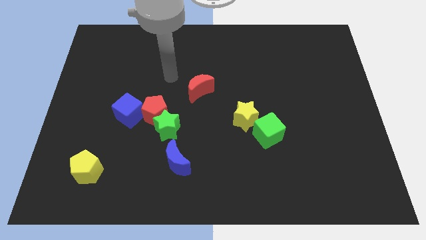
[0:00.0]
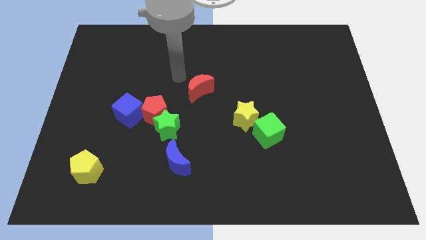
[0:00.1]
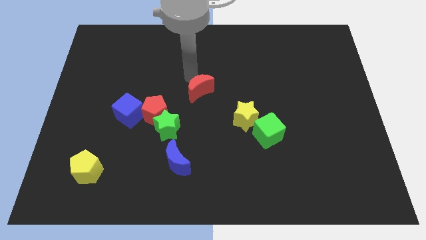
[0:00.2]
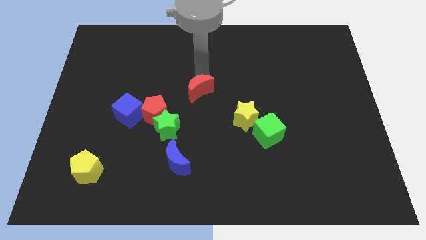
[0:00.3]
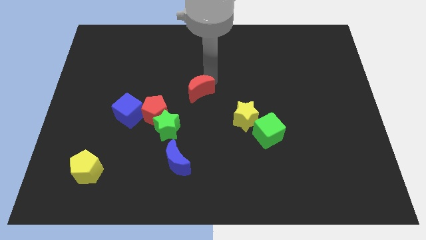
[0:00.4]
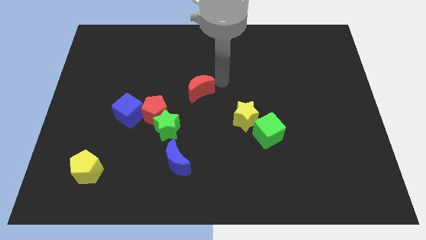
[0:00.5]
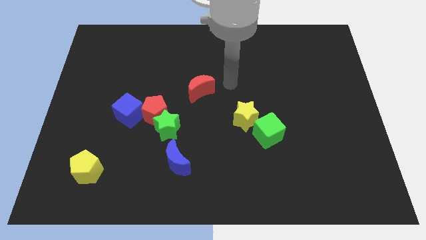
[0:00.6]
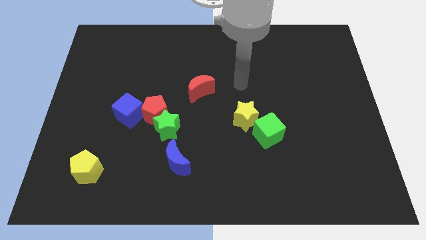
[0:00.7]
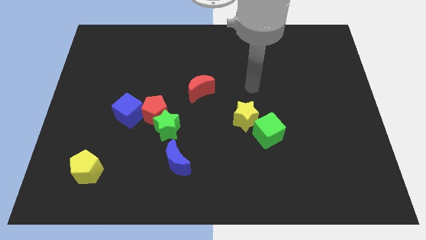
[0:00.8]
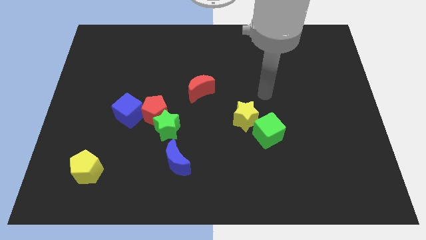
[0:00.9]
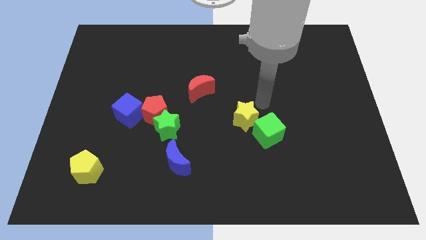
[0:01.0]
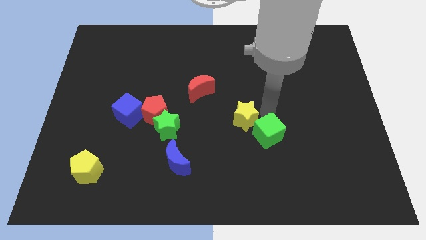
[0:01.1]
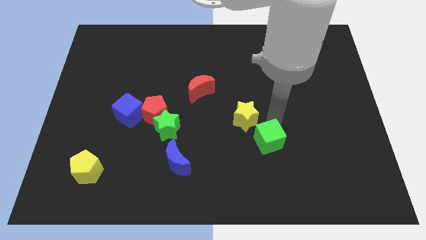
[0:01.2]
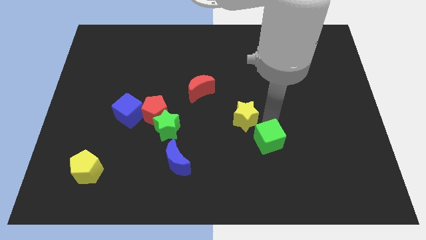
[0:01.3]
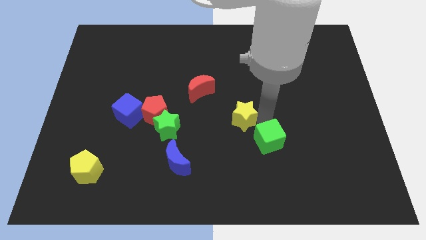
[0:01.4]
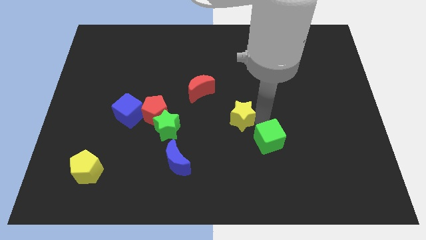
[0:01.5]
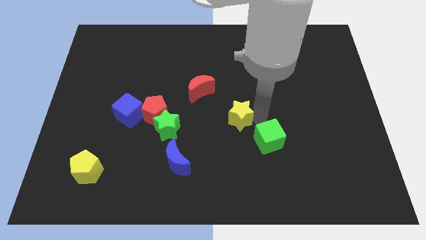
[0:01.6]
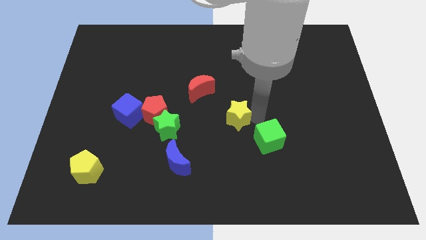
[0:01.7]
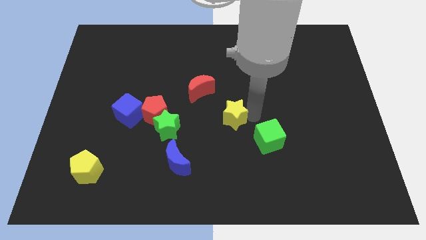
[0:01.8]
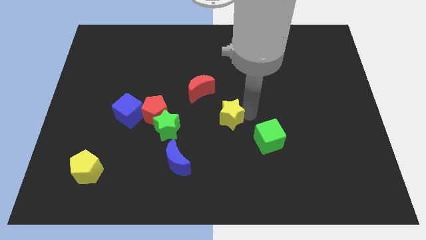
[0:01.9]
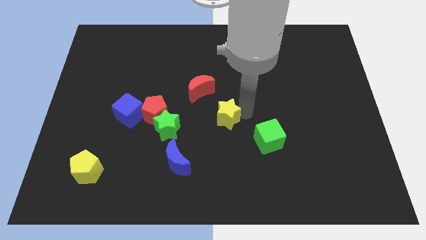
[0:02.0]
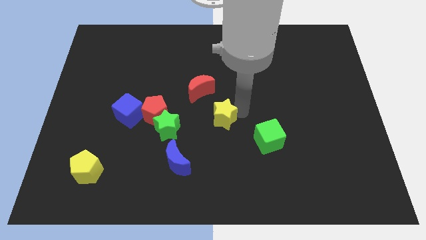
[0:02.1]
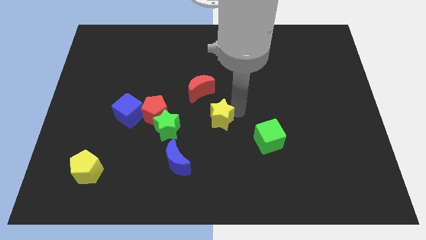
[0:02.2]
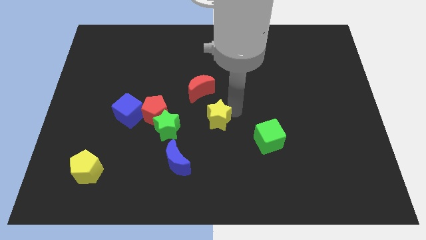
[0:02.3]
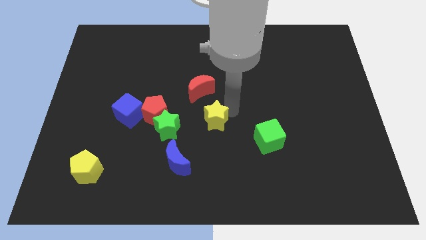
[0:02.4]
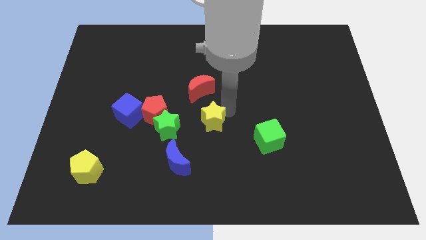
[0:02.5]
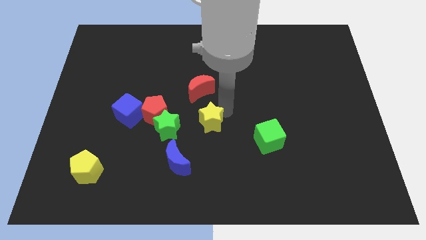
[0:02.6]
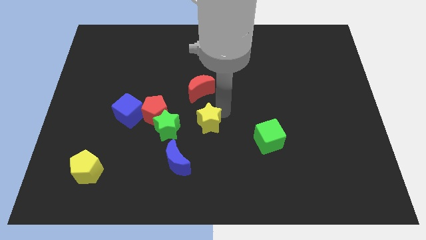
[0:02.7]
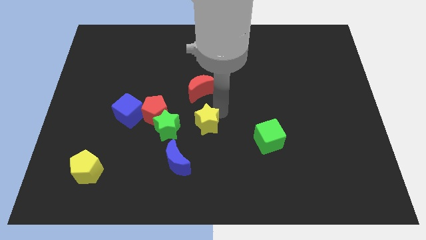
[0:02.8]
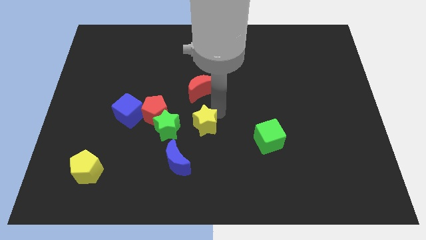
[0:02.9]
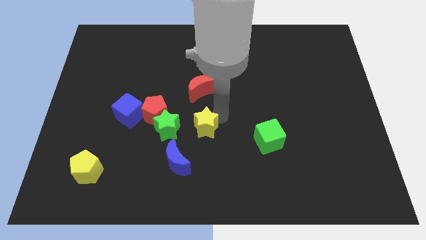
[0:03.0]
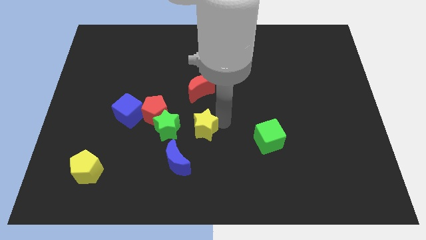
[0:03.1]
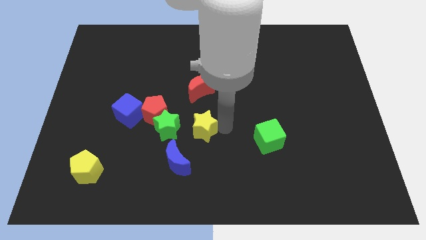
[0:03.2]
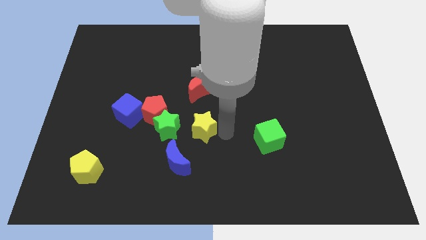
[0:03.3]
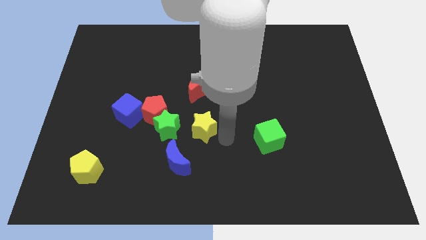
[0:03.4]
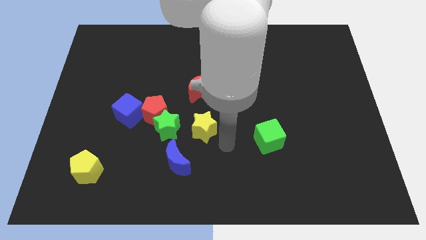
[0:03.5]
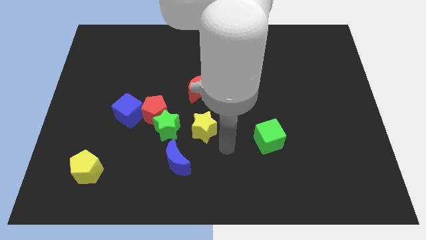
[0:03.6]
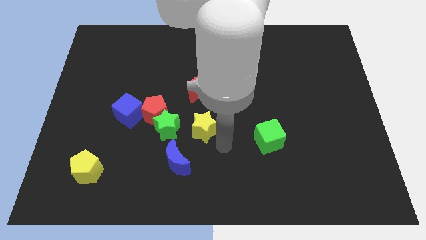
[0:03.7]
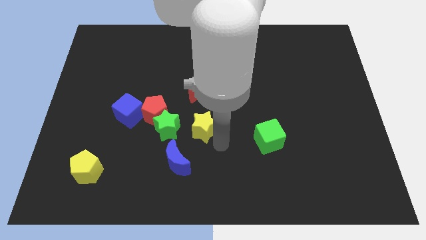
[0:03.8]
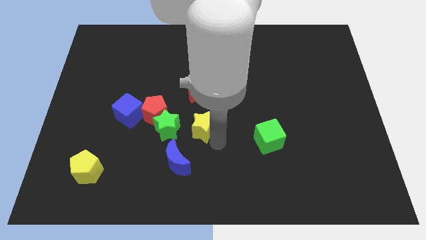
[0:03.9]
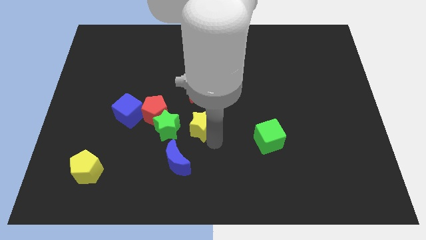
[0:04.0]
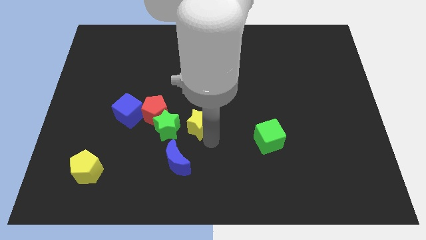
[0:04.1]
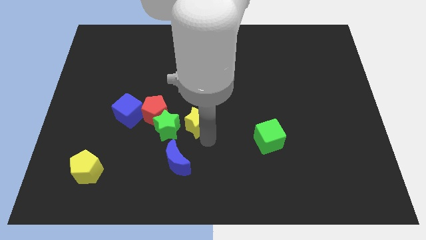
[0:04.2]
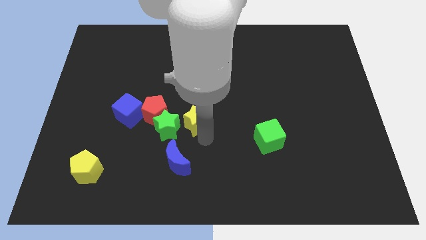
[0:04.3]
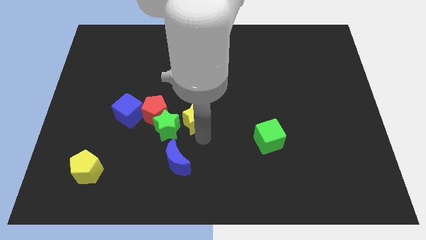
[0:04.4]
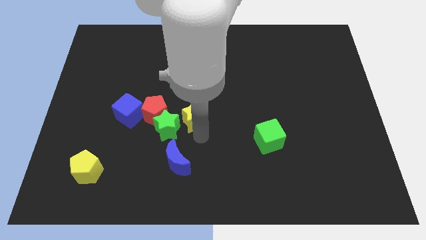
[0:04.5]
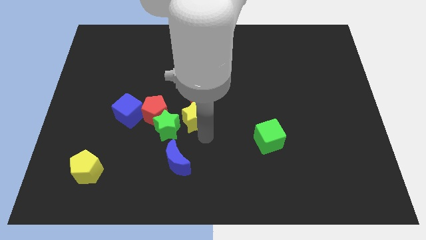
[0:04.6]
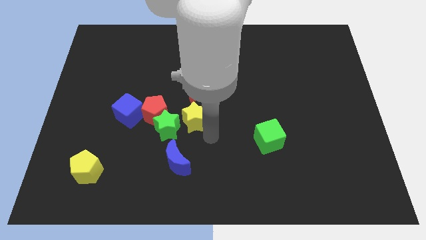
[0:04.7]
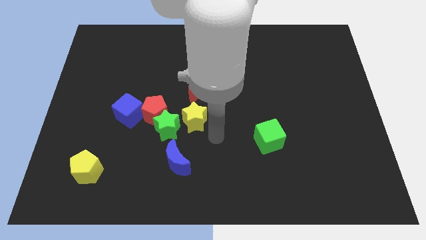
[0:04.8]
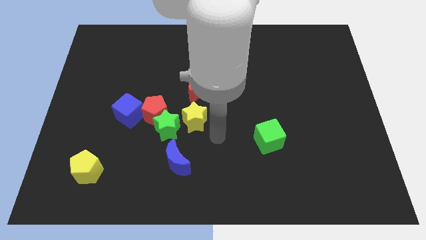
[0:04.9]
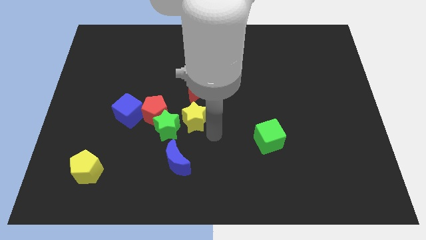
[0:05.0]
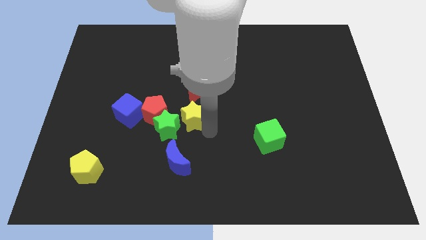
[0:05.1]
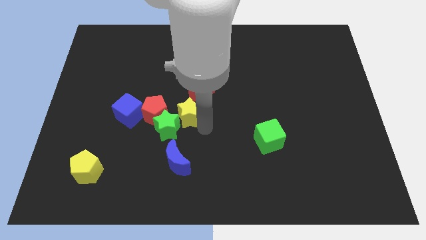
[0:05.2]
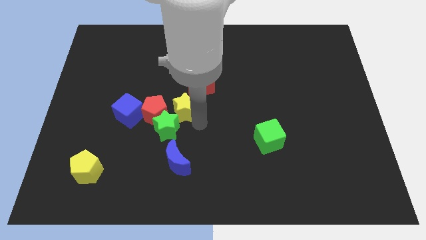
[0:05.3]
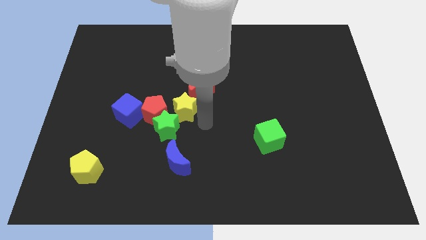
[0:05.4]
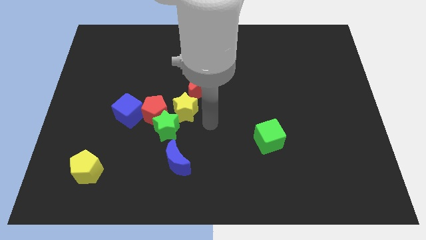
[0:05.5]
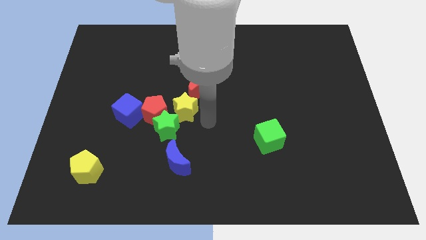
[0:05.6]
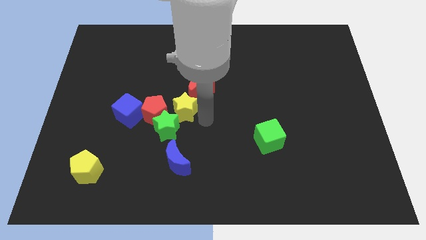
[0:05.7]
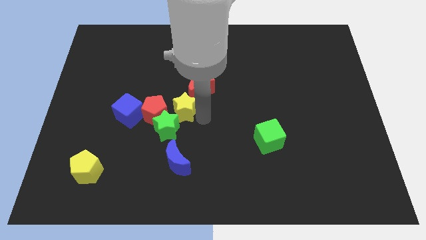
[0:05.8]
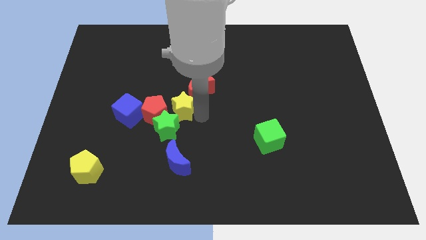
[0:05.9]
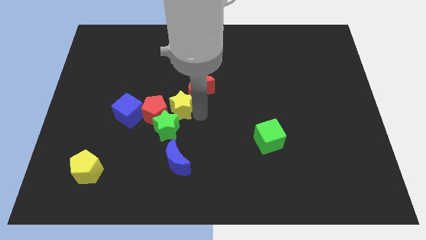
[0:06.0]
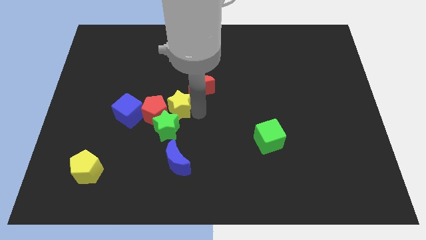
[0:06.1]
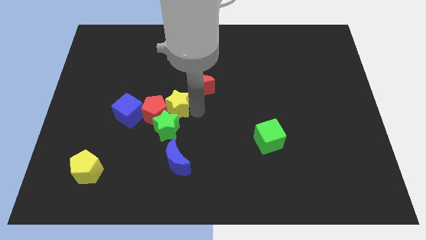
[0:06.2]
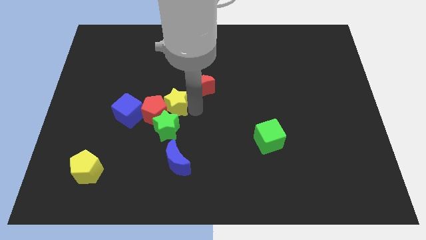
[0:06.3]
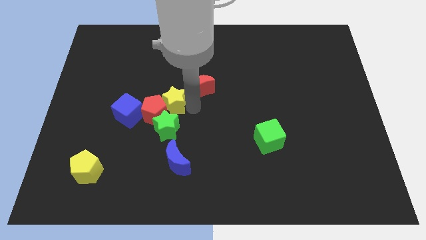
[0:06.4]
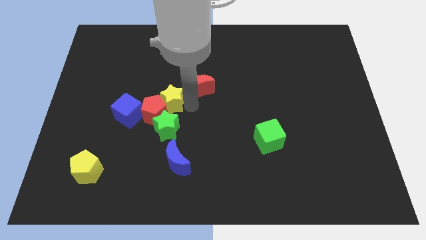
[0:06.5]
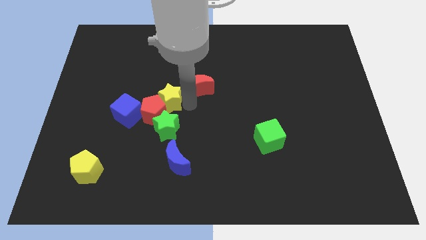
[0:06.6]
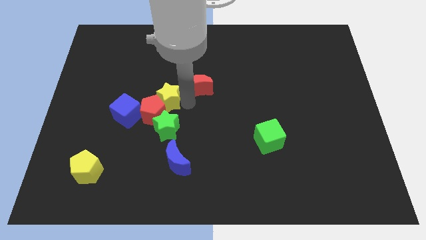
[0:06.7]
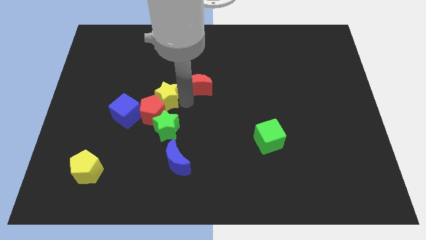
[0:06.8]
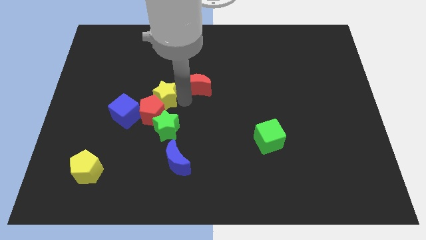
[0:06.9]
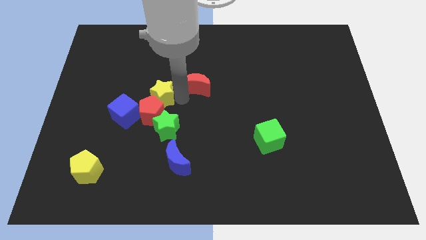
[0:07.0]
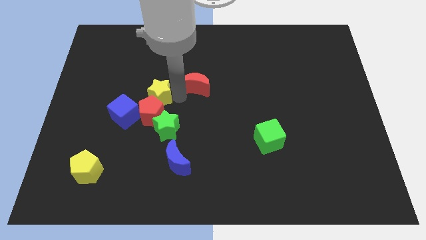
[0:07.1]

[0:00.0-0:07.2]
put the yellow star to the top left of the red pentagon

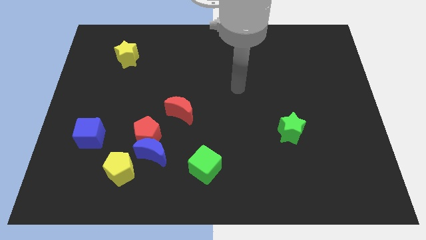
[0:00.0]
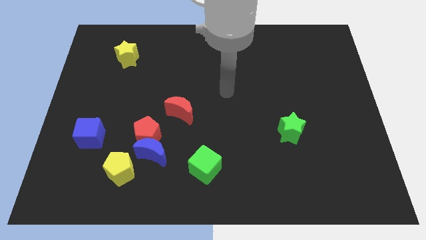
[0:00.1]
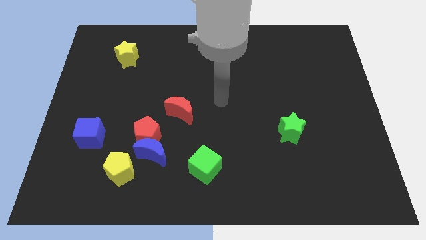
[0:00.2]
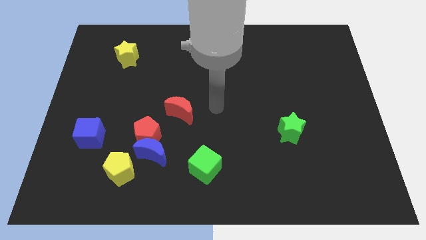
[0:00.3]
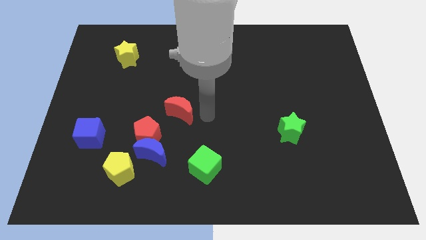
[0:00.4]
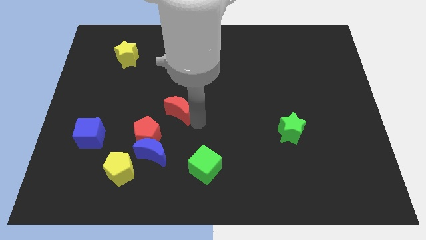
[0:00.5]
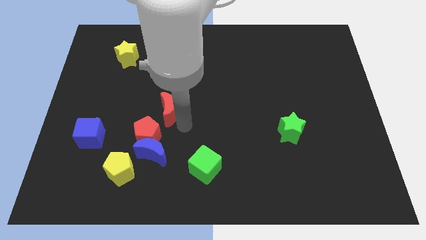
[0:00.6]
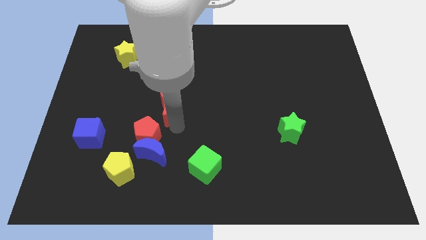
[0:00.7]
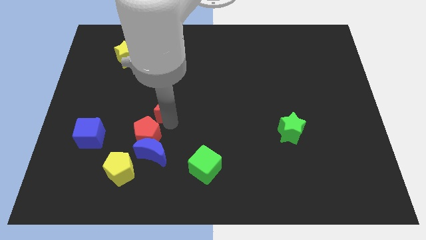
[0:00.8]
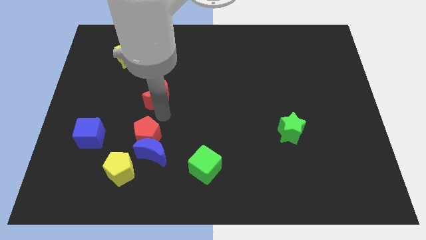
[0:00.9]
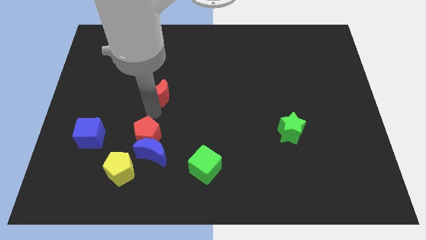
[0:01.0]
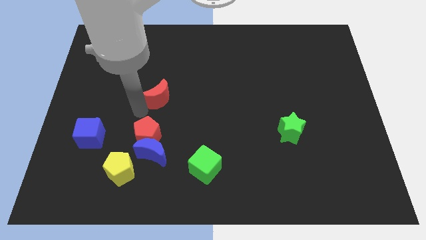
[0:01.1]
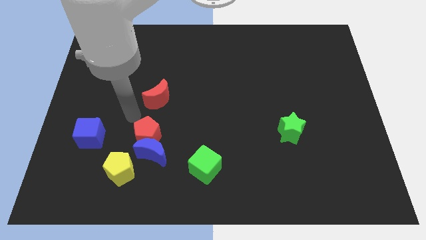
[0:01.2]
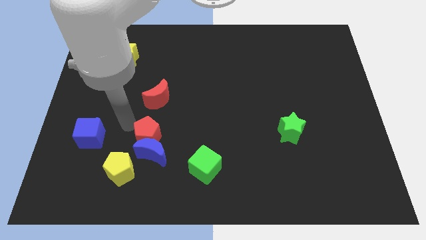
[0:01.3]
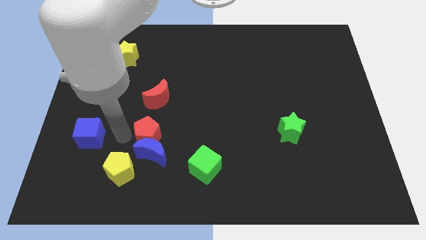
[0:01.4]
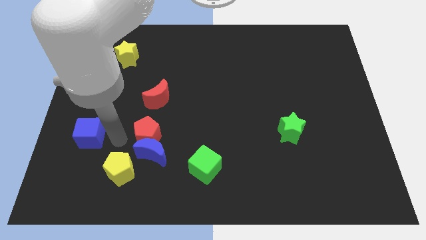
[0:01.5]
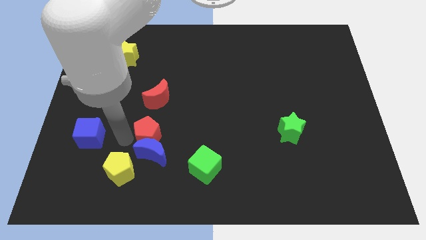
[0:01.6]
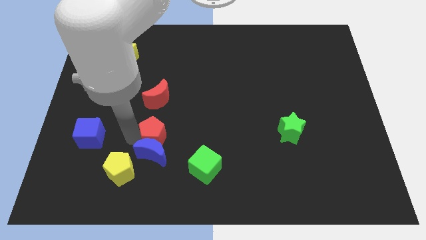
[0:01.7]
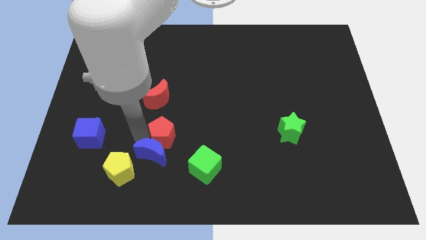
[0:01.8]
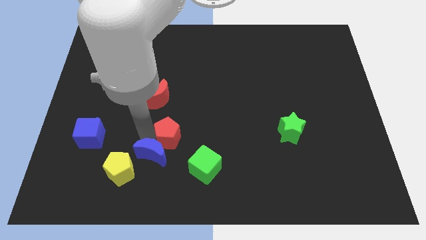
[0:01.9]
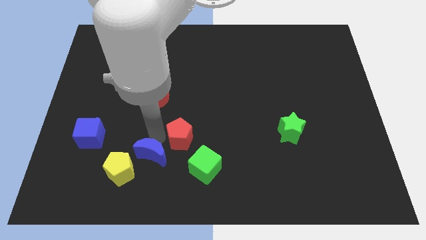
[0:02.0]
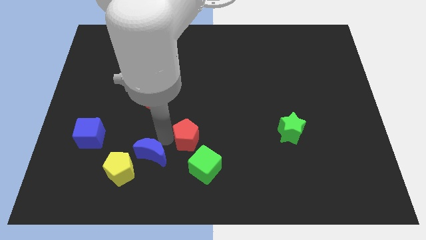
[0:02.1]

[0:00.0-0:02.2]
push the red pentagon to the top of the green cube
